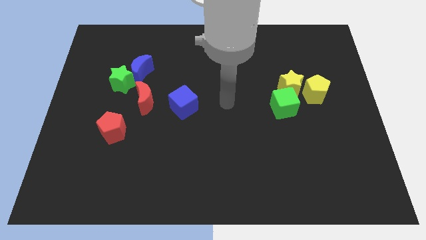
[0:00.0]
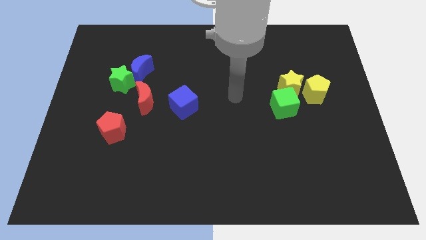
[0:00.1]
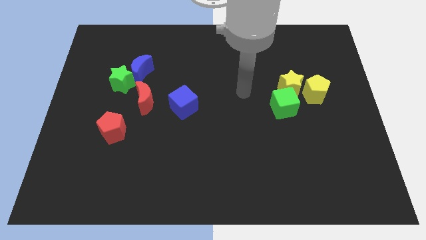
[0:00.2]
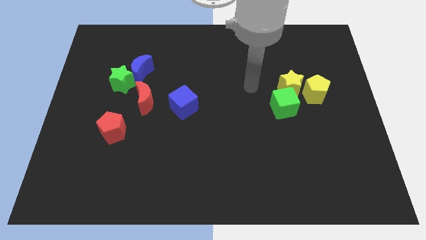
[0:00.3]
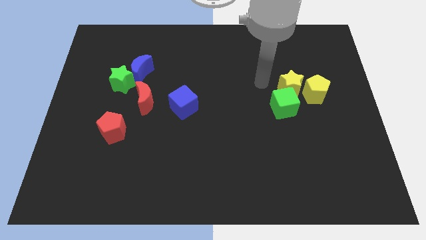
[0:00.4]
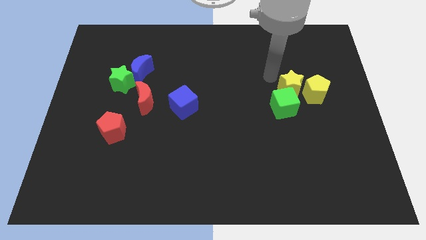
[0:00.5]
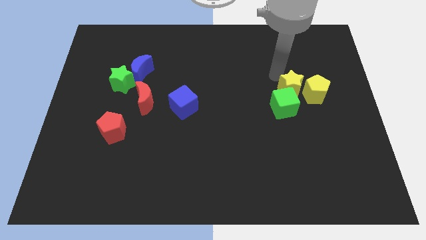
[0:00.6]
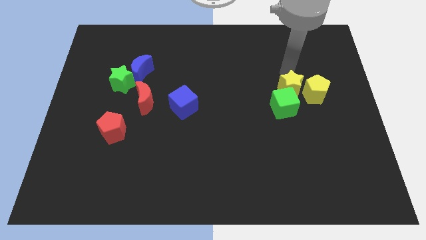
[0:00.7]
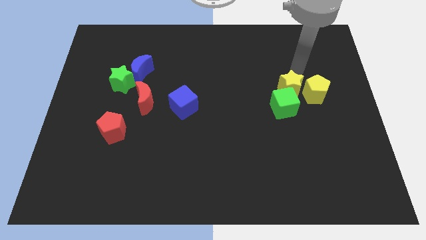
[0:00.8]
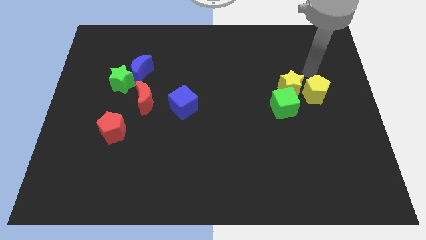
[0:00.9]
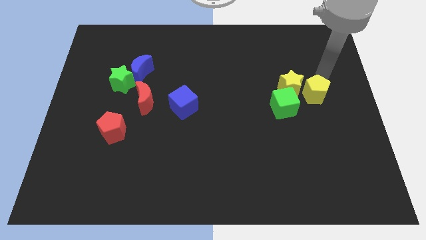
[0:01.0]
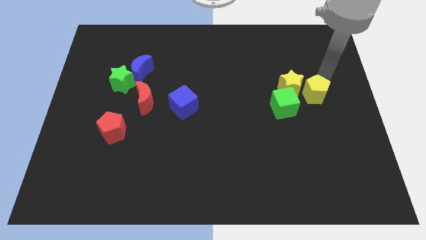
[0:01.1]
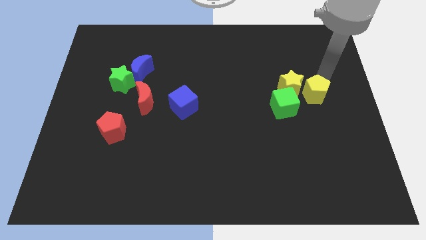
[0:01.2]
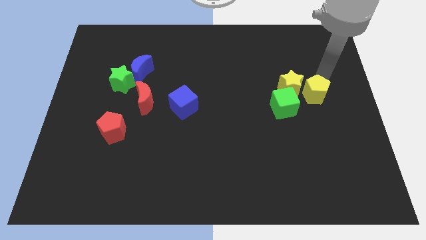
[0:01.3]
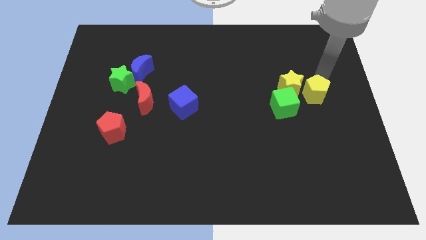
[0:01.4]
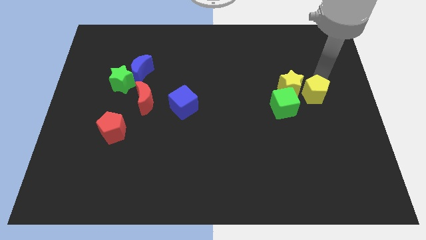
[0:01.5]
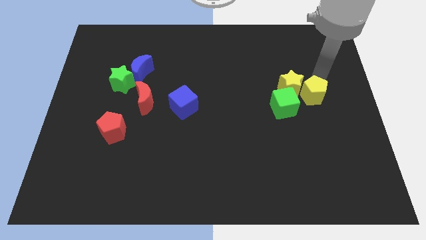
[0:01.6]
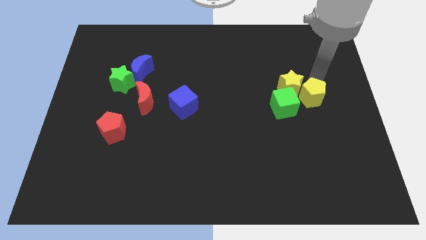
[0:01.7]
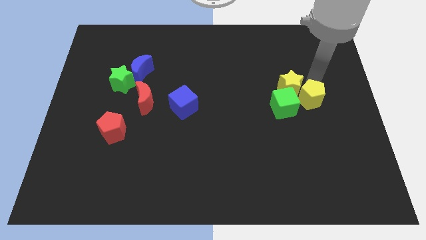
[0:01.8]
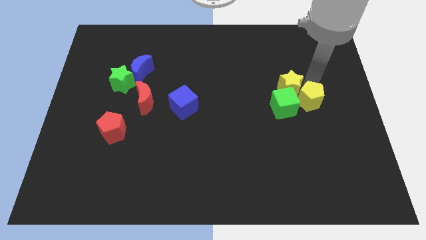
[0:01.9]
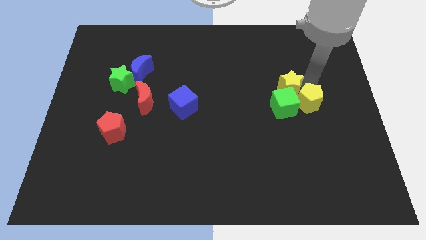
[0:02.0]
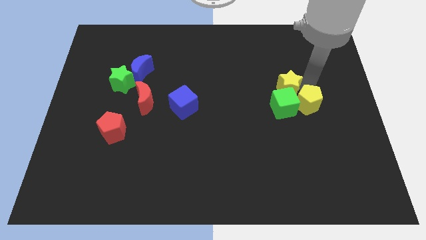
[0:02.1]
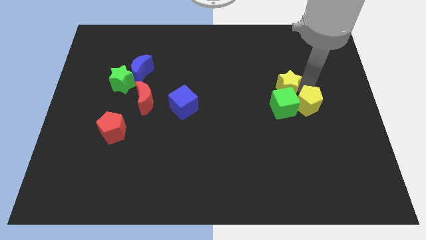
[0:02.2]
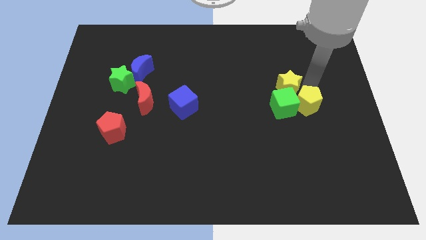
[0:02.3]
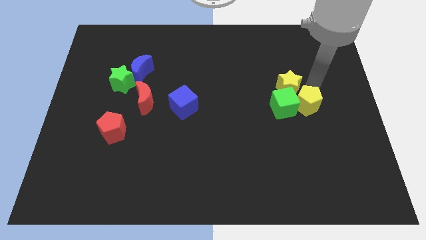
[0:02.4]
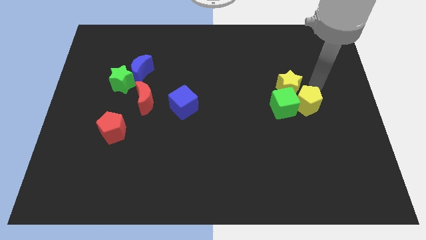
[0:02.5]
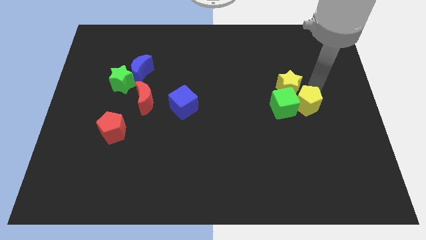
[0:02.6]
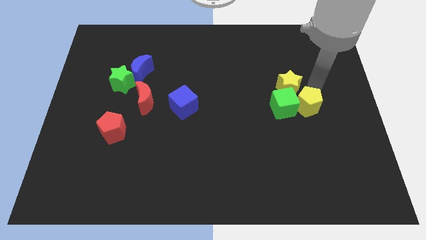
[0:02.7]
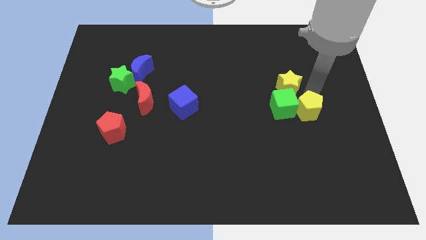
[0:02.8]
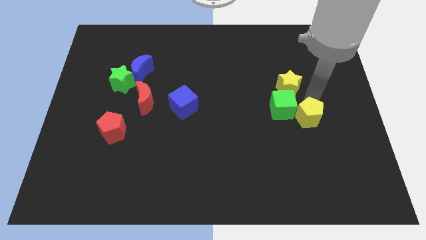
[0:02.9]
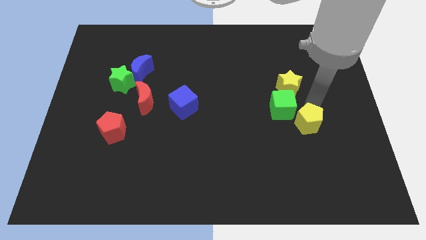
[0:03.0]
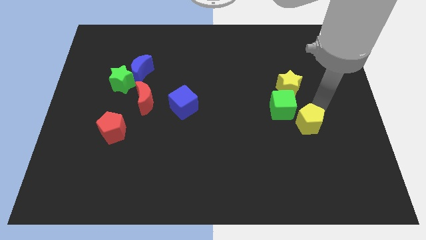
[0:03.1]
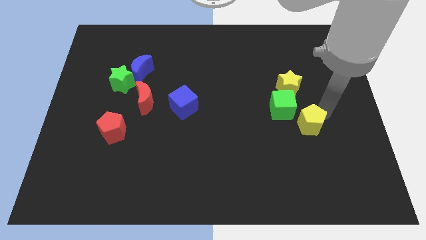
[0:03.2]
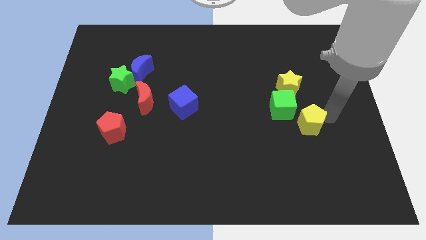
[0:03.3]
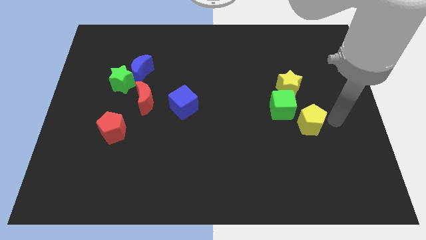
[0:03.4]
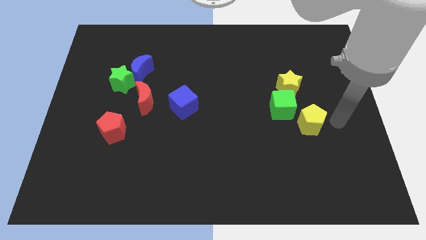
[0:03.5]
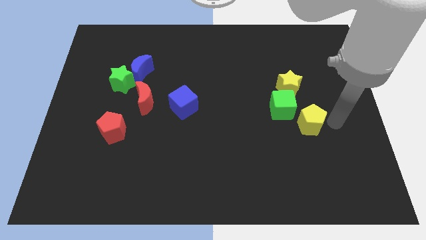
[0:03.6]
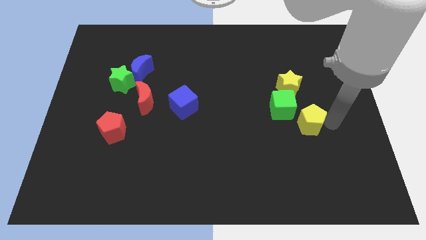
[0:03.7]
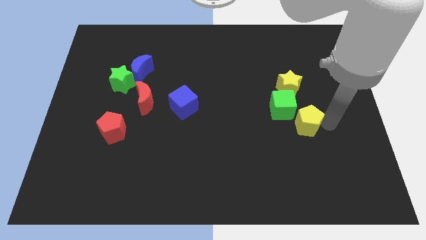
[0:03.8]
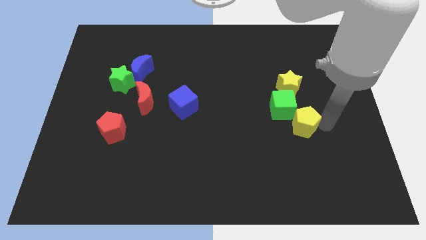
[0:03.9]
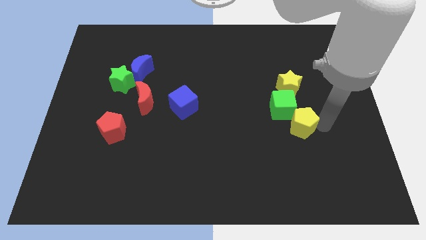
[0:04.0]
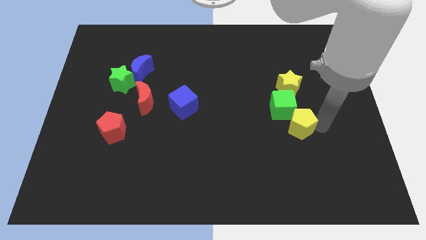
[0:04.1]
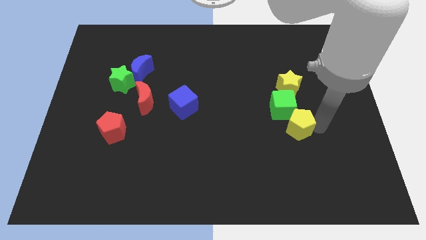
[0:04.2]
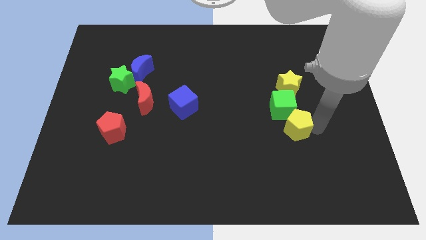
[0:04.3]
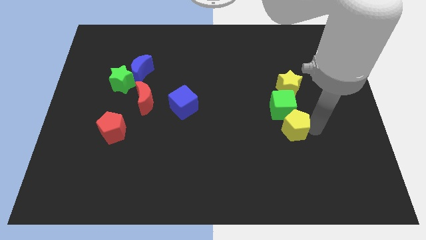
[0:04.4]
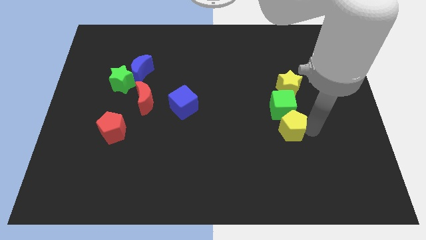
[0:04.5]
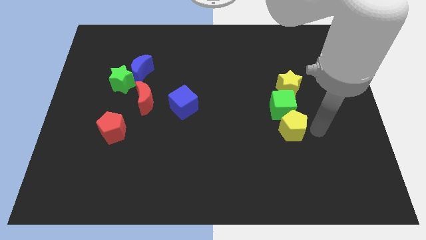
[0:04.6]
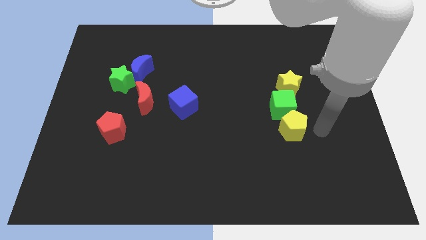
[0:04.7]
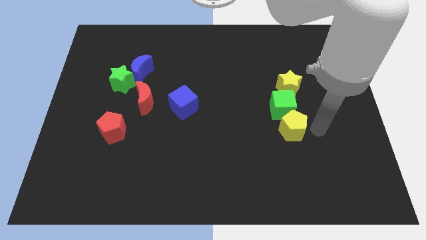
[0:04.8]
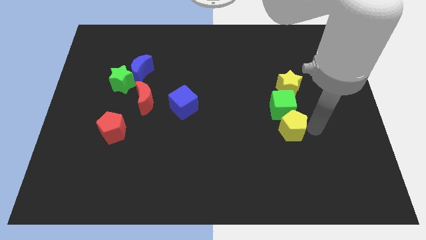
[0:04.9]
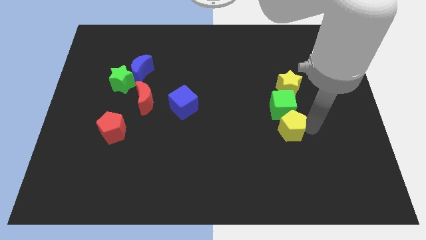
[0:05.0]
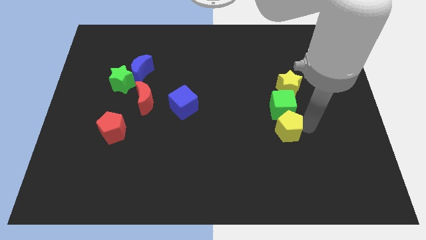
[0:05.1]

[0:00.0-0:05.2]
slide the yellow pentagon to the bottom left of the green cube

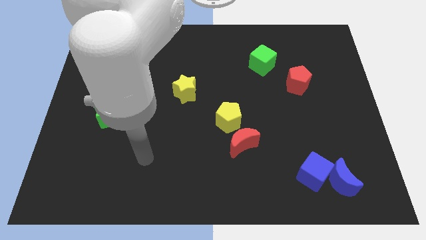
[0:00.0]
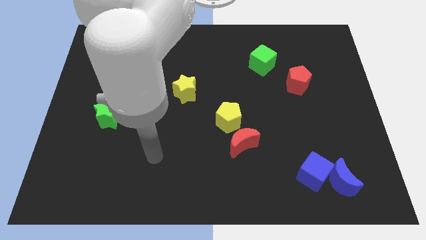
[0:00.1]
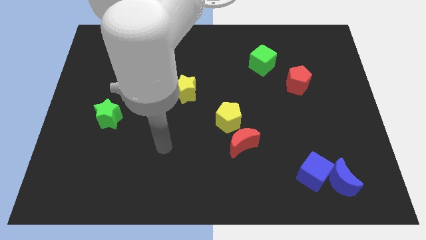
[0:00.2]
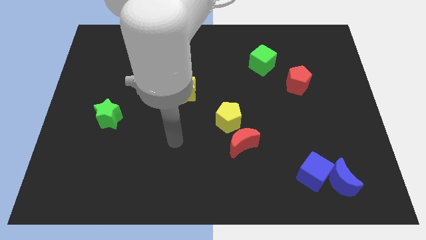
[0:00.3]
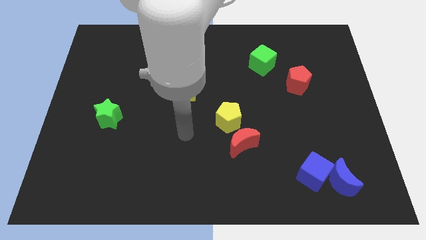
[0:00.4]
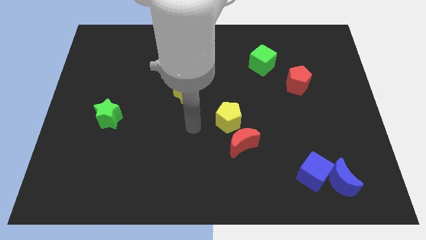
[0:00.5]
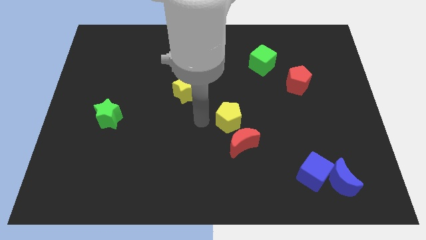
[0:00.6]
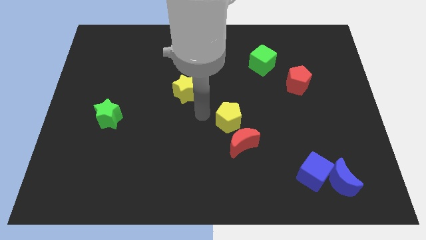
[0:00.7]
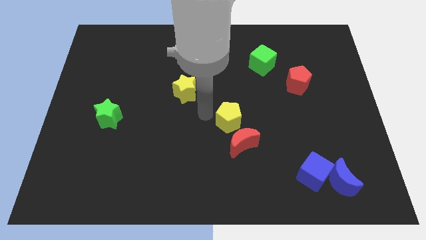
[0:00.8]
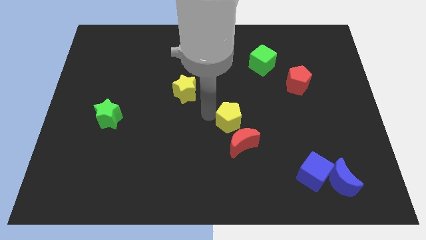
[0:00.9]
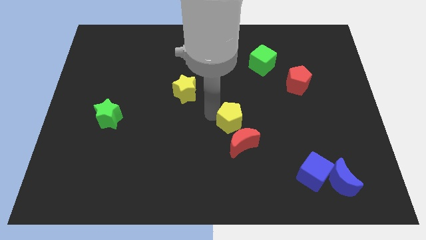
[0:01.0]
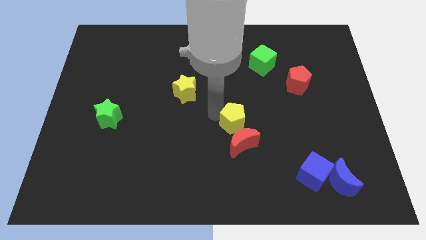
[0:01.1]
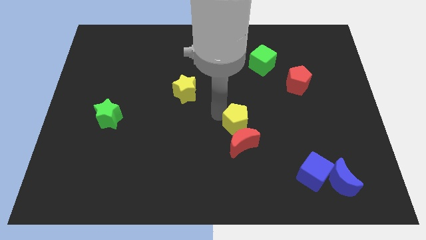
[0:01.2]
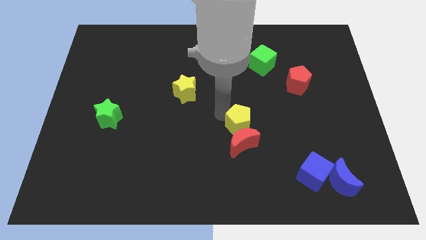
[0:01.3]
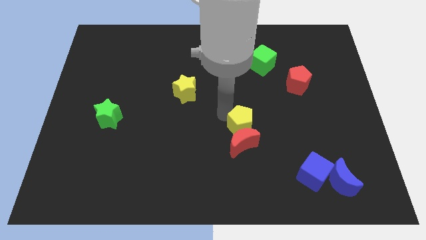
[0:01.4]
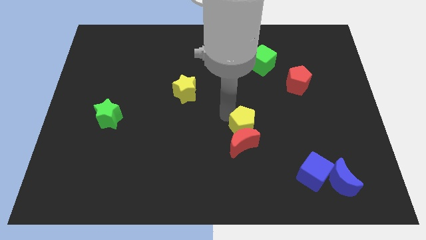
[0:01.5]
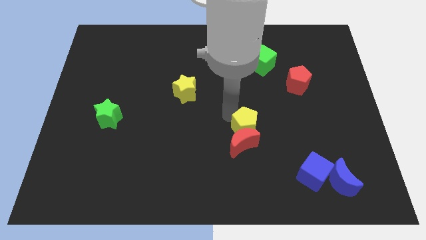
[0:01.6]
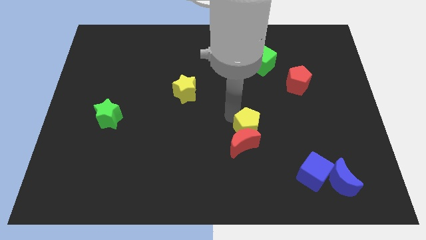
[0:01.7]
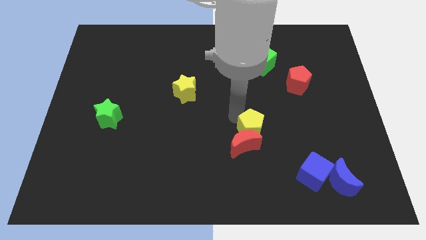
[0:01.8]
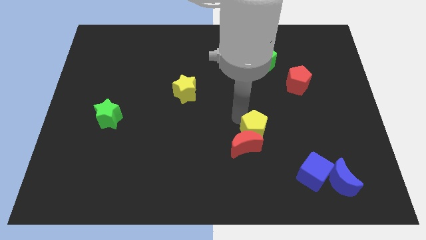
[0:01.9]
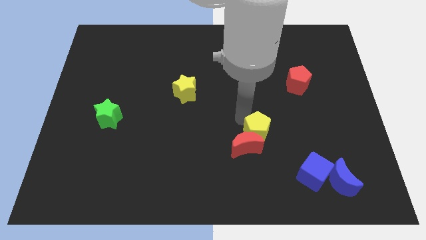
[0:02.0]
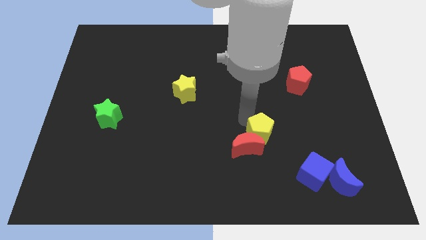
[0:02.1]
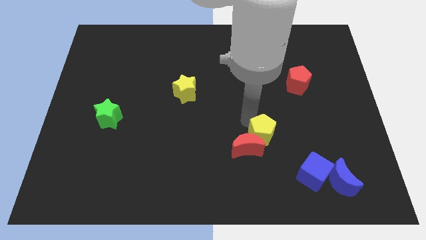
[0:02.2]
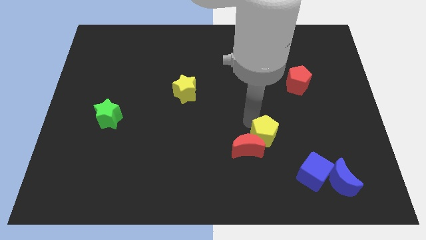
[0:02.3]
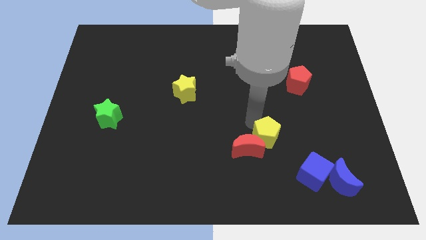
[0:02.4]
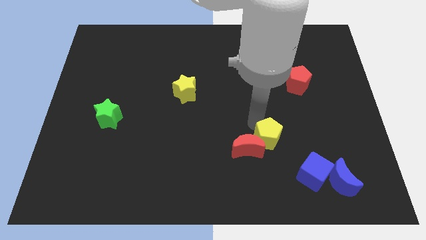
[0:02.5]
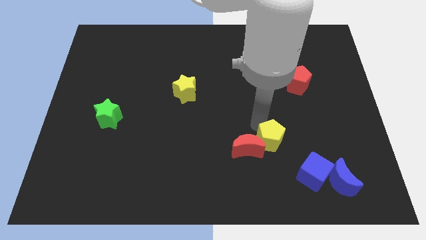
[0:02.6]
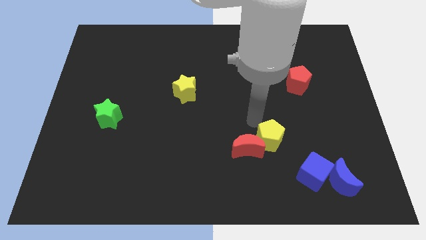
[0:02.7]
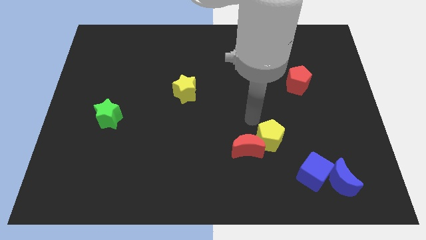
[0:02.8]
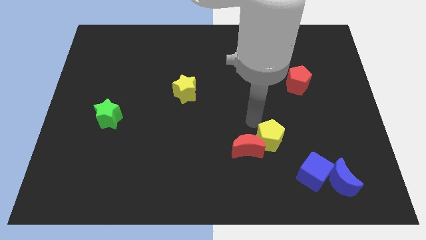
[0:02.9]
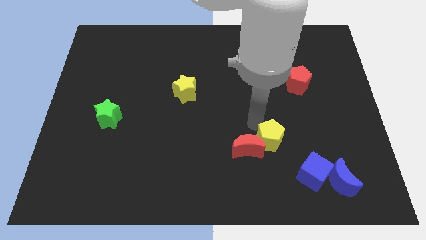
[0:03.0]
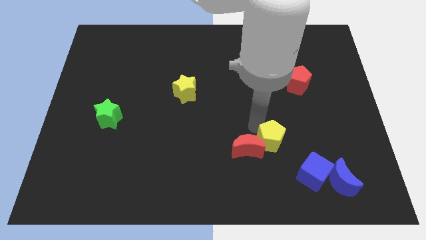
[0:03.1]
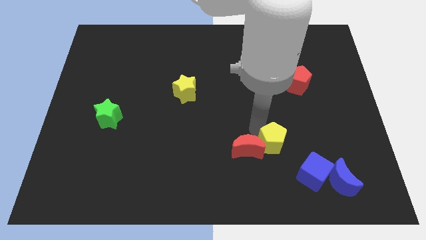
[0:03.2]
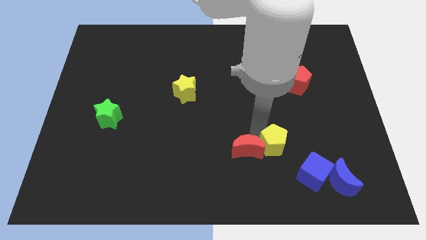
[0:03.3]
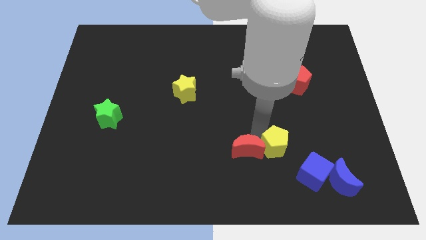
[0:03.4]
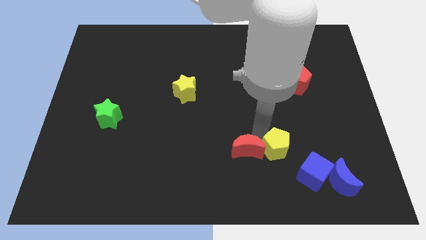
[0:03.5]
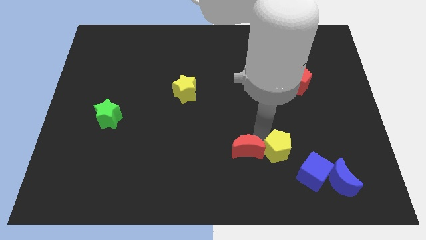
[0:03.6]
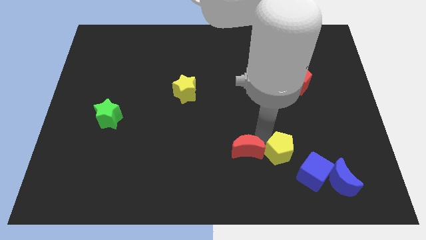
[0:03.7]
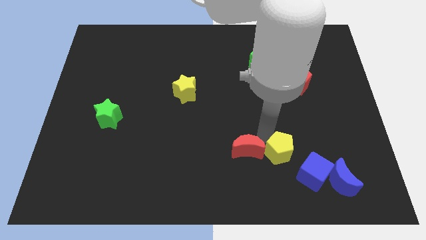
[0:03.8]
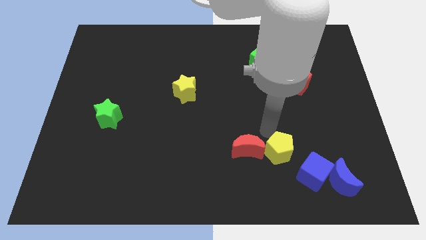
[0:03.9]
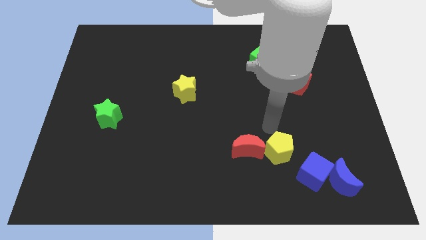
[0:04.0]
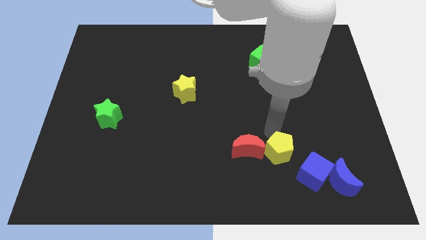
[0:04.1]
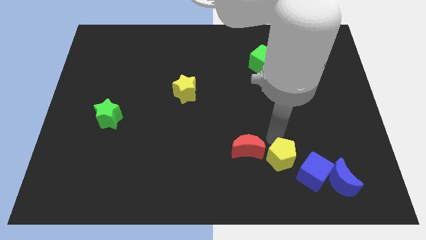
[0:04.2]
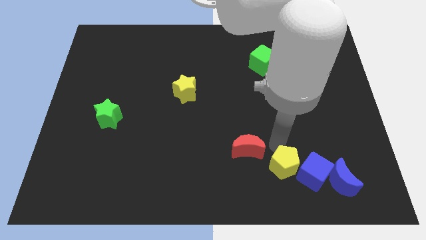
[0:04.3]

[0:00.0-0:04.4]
slide the yellow pentagon left of the blue moon
